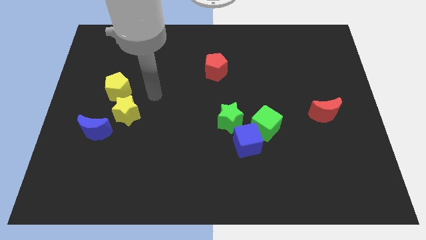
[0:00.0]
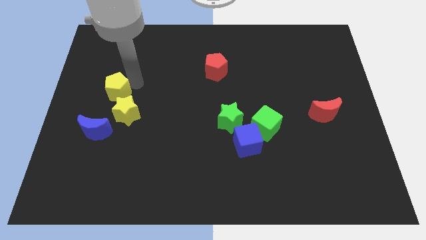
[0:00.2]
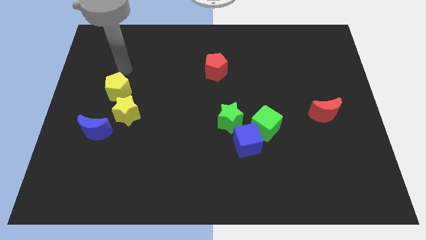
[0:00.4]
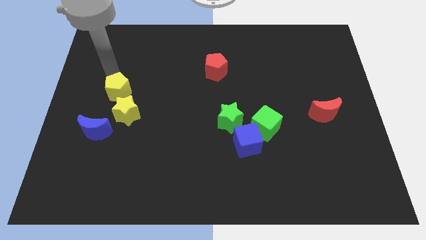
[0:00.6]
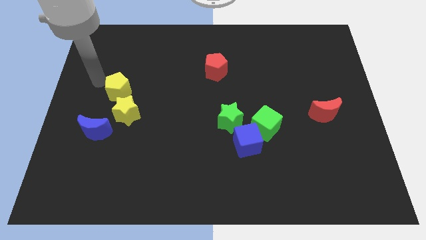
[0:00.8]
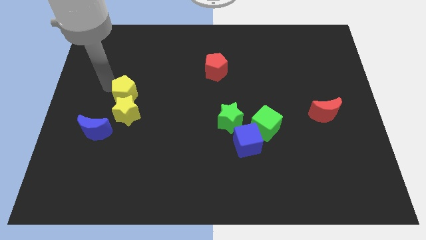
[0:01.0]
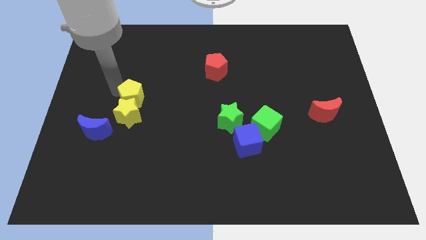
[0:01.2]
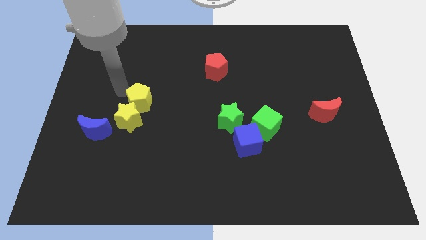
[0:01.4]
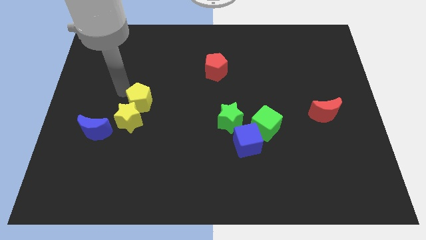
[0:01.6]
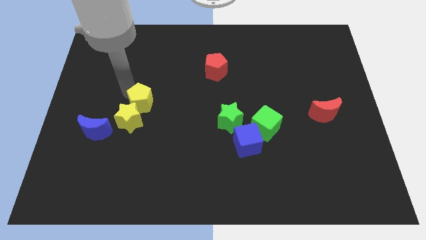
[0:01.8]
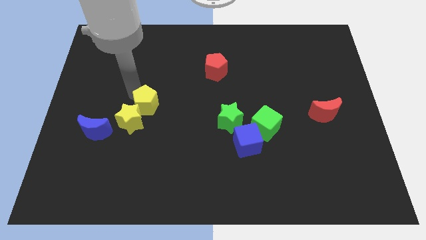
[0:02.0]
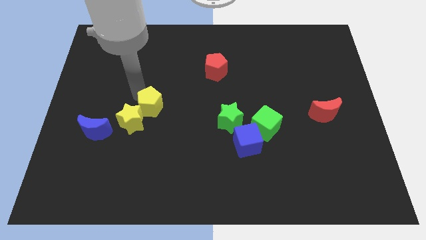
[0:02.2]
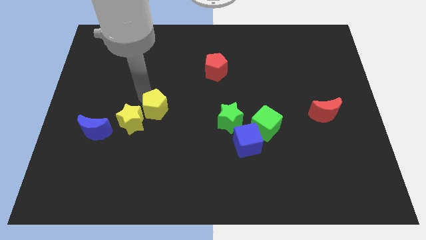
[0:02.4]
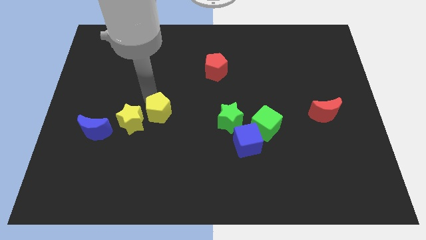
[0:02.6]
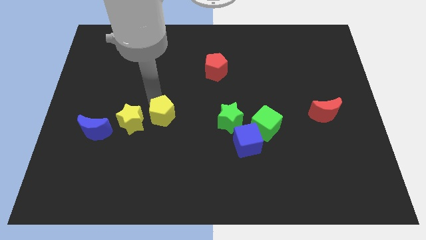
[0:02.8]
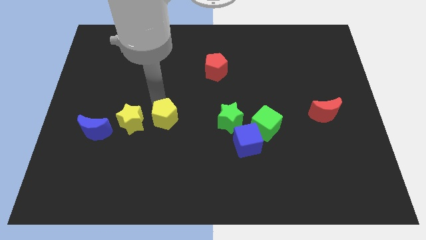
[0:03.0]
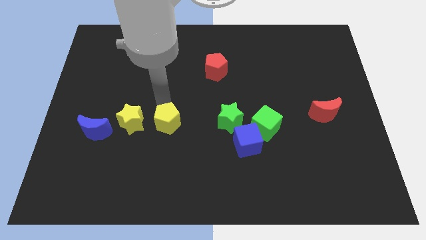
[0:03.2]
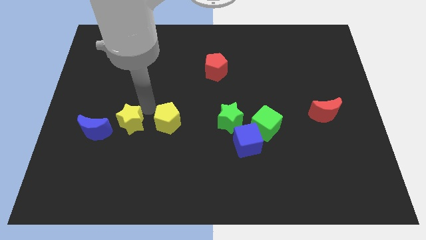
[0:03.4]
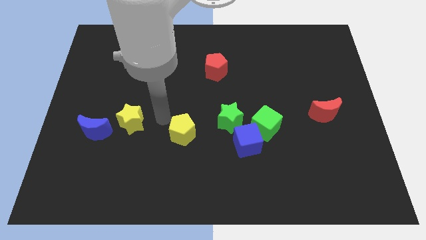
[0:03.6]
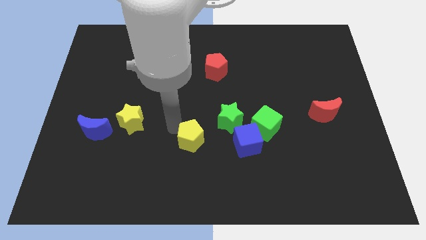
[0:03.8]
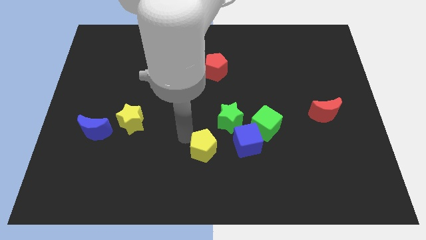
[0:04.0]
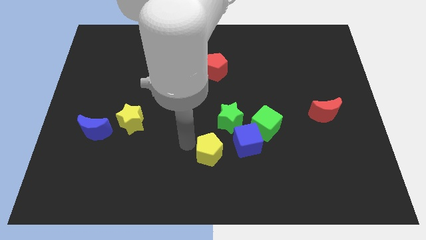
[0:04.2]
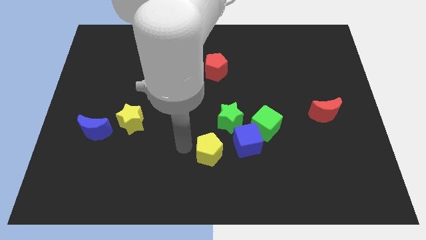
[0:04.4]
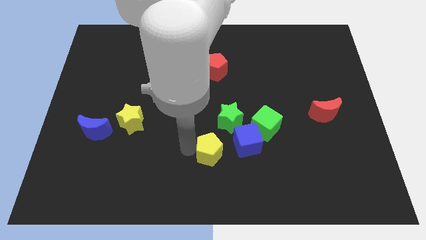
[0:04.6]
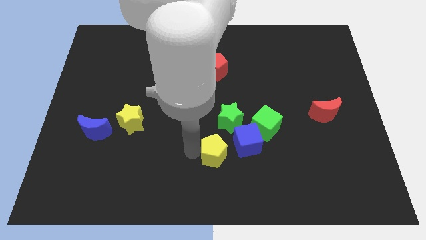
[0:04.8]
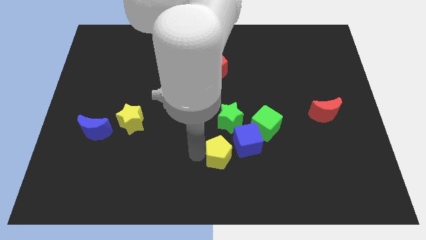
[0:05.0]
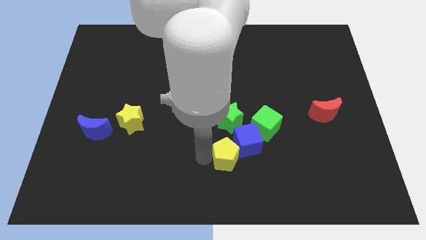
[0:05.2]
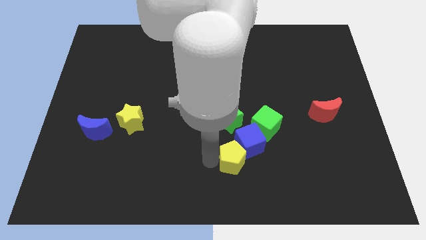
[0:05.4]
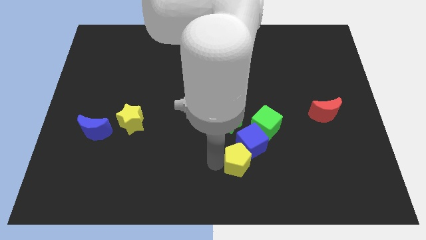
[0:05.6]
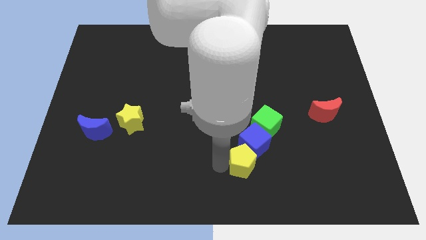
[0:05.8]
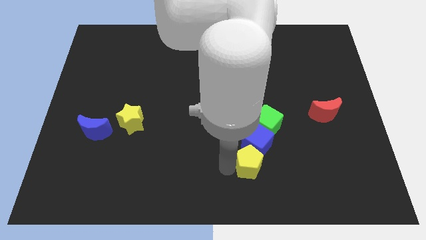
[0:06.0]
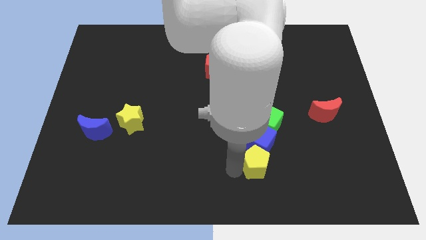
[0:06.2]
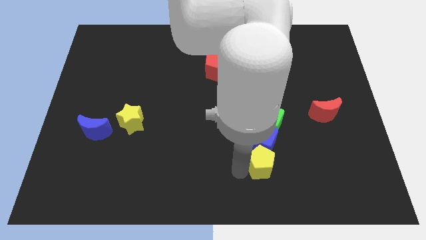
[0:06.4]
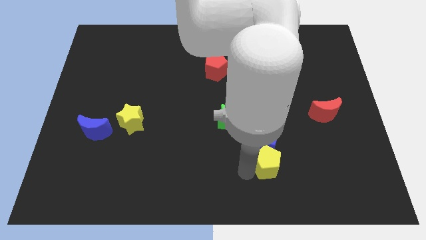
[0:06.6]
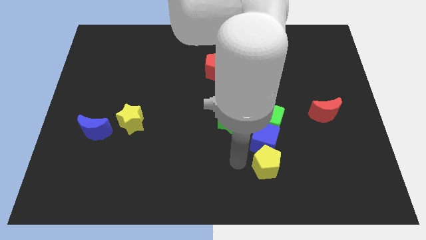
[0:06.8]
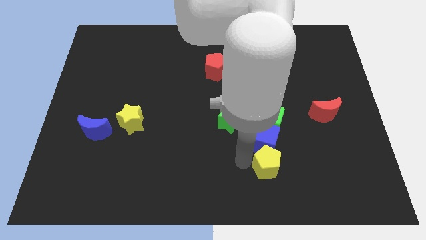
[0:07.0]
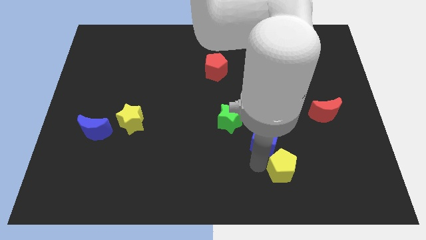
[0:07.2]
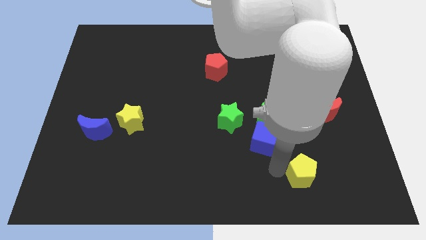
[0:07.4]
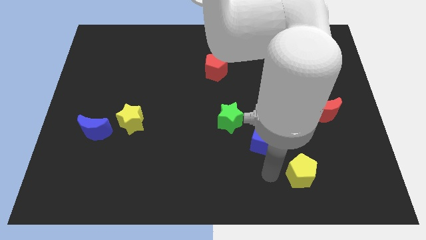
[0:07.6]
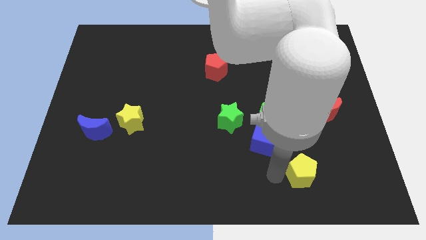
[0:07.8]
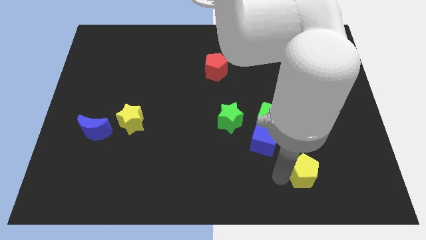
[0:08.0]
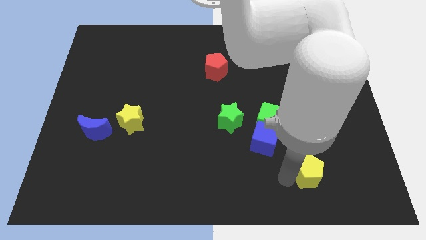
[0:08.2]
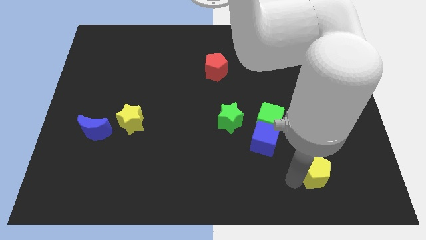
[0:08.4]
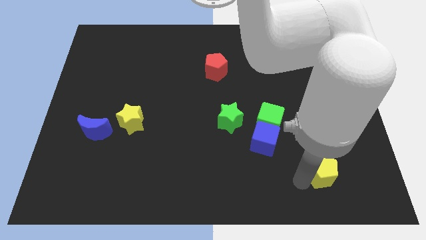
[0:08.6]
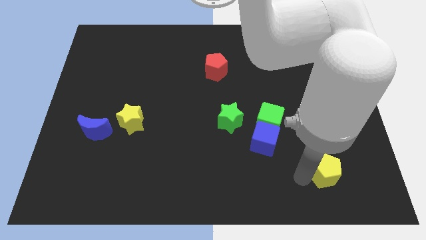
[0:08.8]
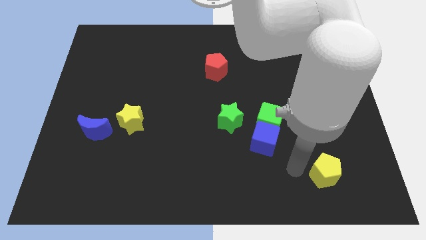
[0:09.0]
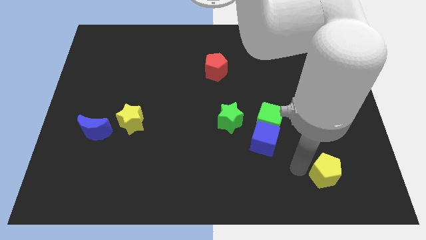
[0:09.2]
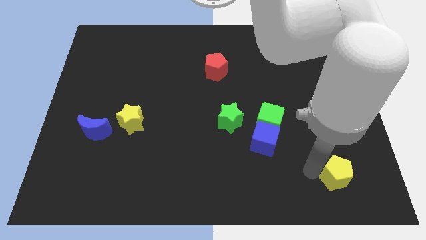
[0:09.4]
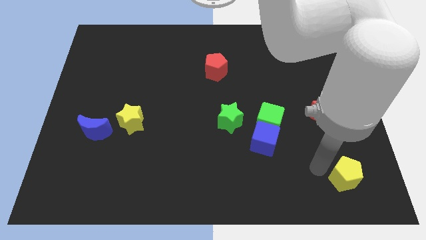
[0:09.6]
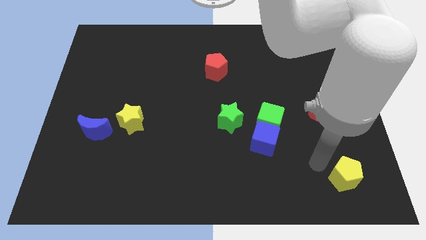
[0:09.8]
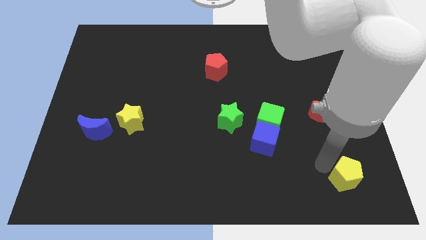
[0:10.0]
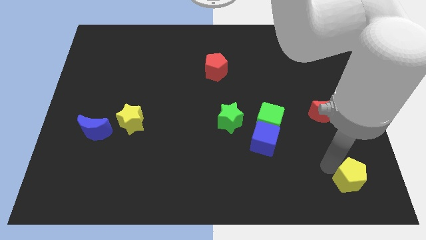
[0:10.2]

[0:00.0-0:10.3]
put the yellow pentagon to the bottom right corner

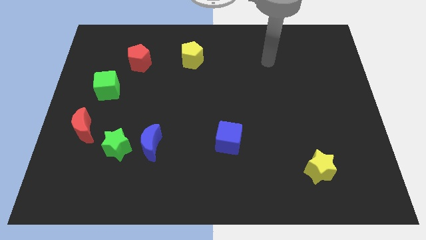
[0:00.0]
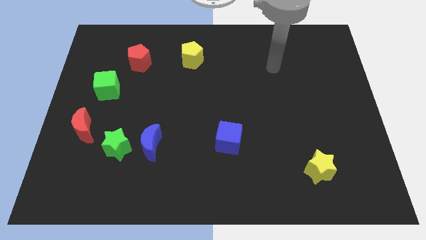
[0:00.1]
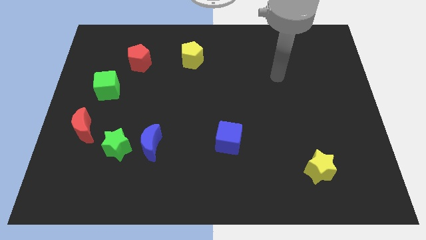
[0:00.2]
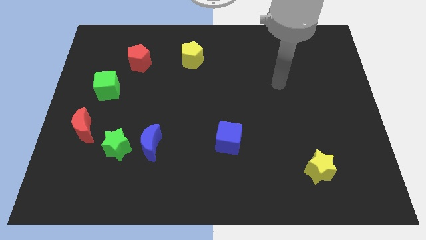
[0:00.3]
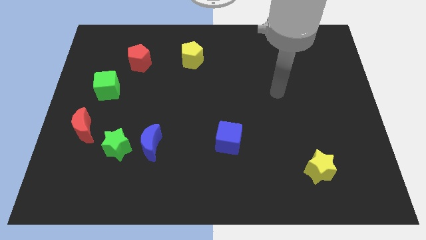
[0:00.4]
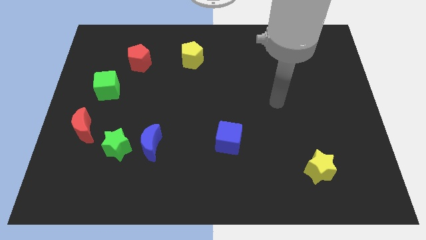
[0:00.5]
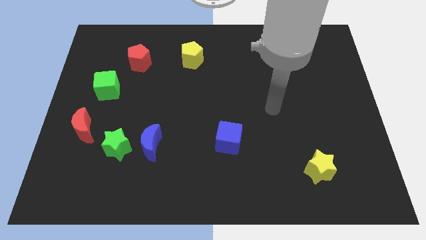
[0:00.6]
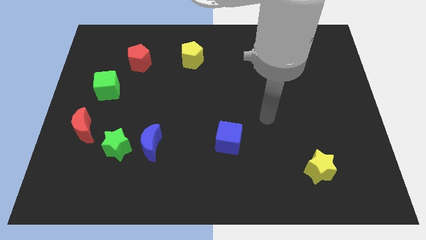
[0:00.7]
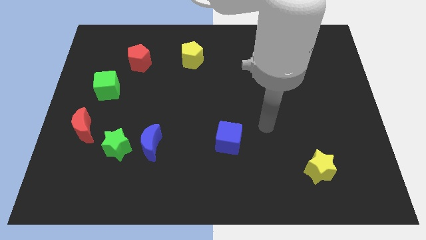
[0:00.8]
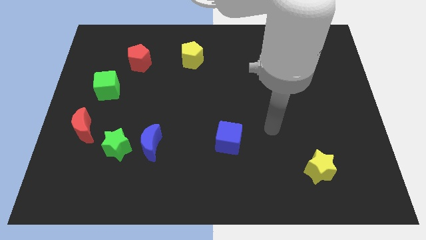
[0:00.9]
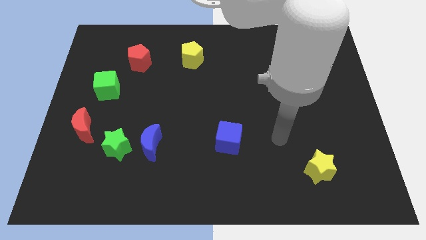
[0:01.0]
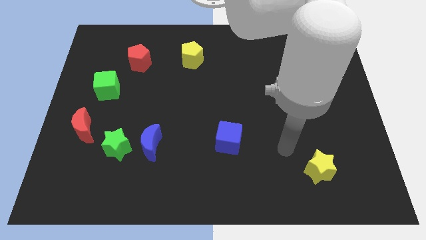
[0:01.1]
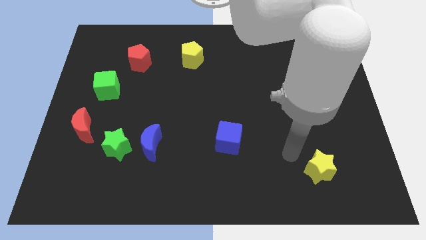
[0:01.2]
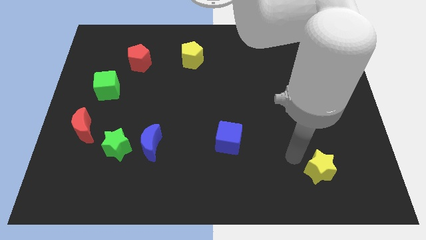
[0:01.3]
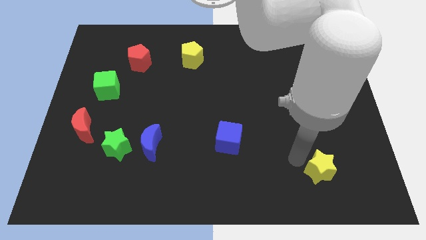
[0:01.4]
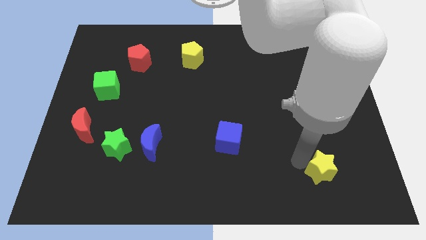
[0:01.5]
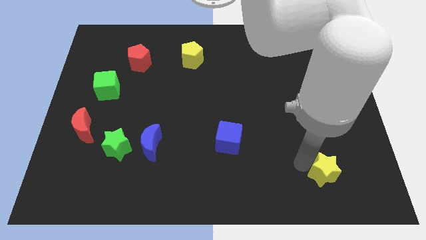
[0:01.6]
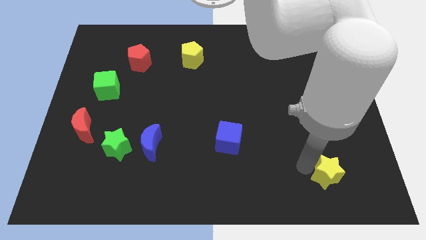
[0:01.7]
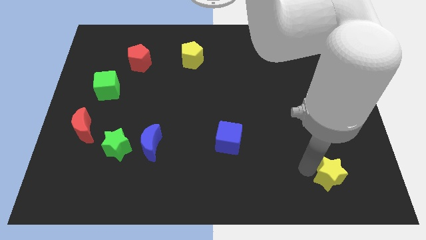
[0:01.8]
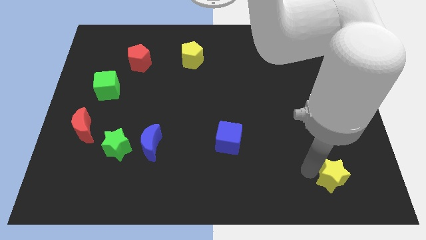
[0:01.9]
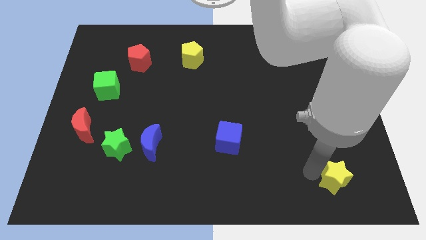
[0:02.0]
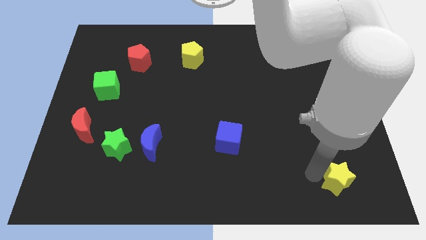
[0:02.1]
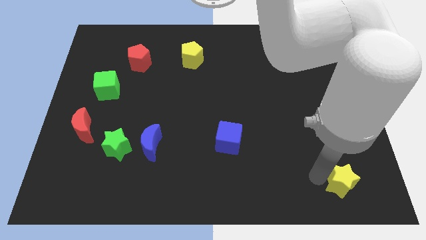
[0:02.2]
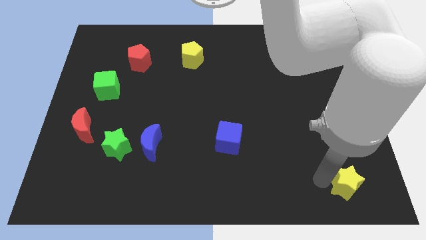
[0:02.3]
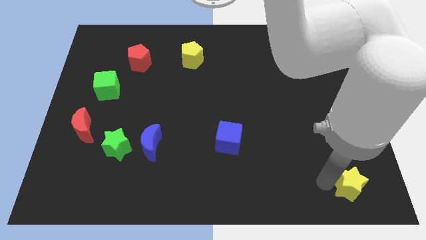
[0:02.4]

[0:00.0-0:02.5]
put the yellow star to the bottom right
